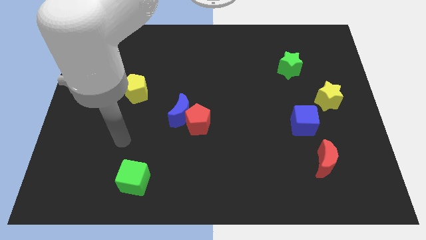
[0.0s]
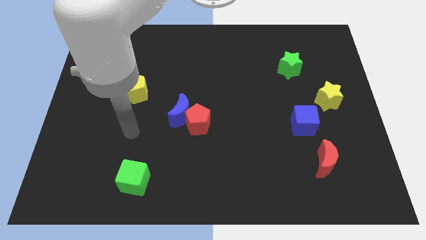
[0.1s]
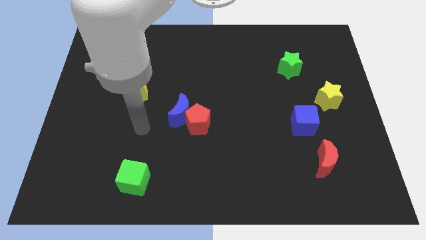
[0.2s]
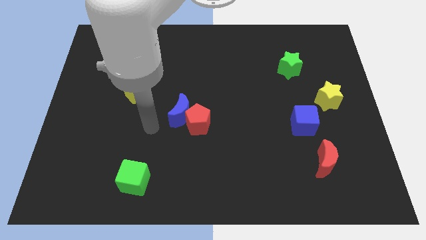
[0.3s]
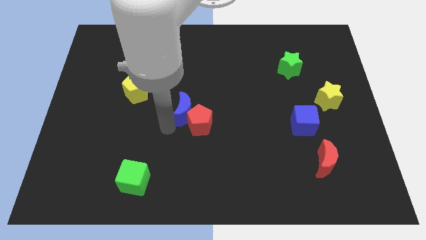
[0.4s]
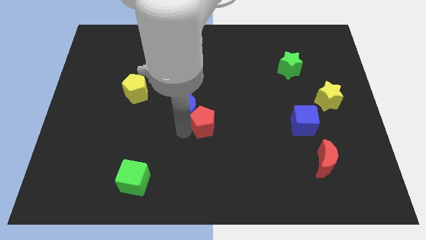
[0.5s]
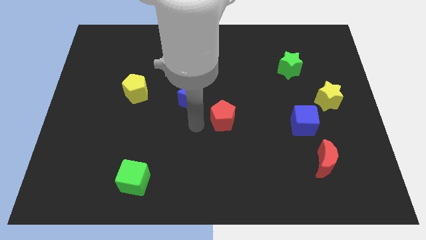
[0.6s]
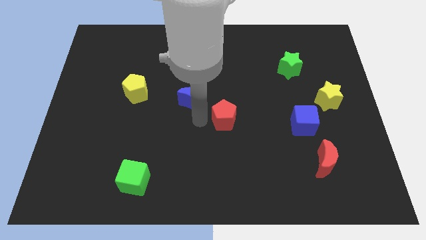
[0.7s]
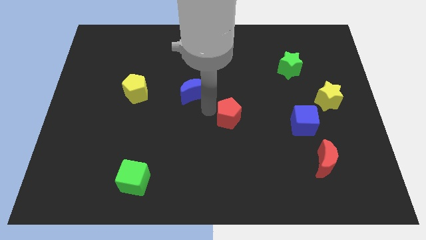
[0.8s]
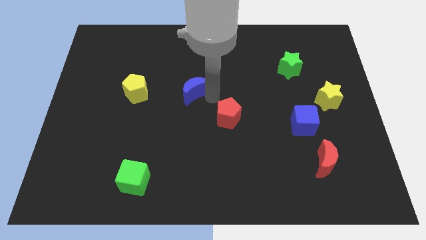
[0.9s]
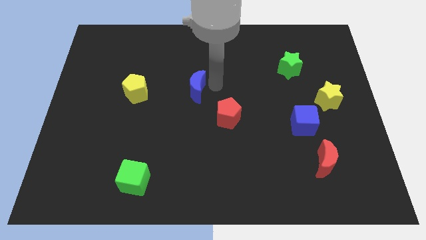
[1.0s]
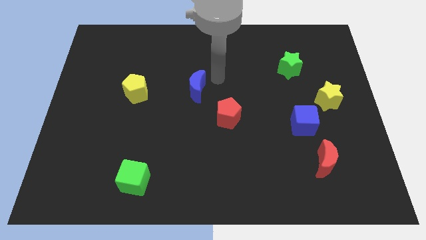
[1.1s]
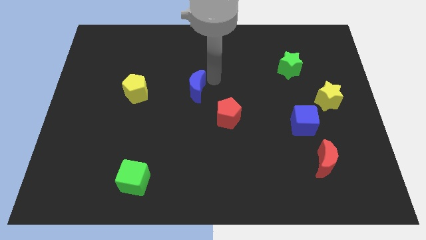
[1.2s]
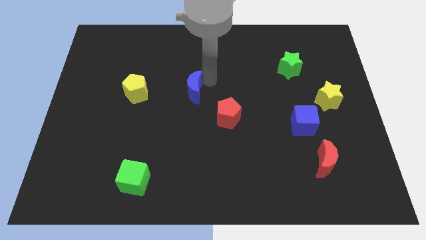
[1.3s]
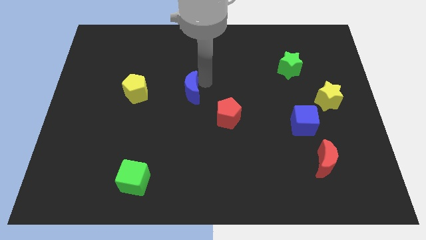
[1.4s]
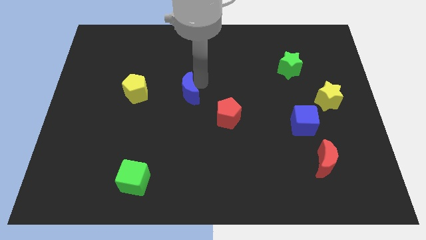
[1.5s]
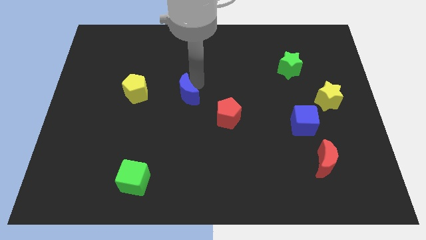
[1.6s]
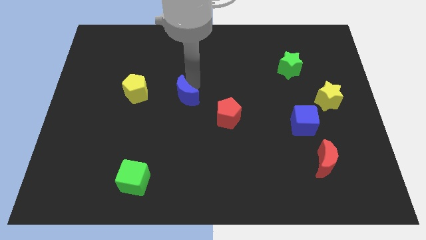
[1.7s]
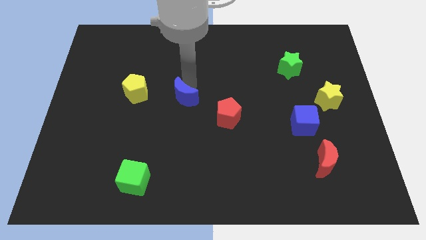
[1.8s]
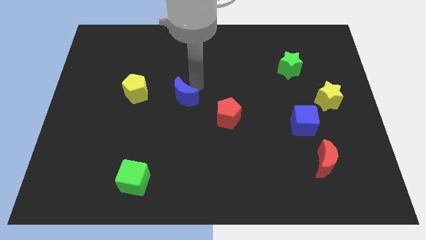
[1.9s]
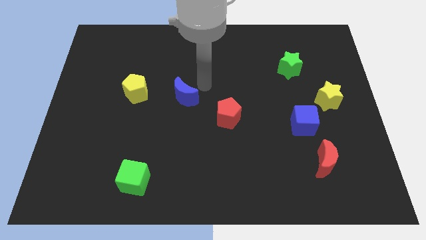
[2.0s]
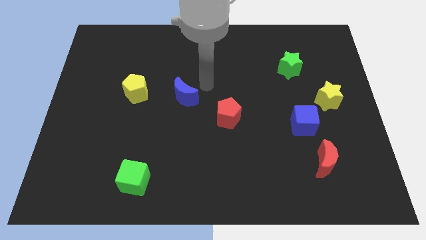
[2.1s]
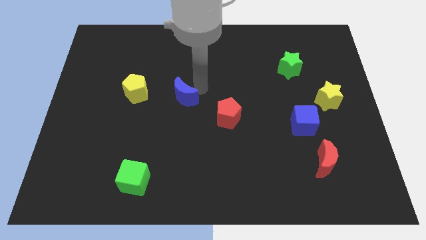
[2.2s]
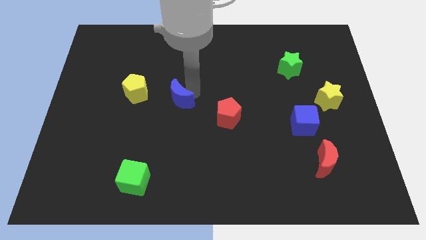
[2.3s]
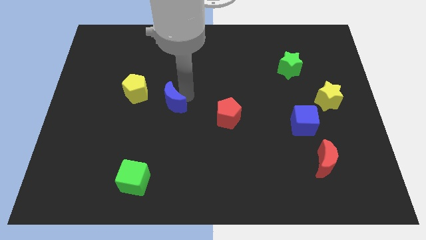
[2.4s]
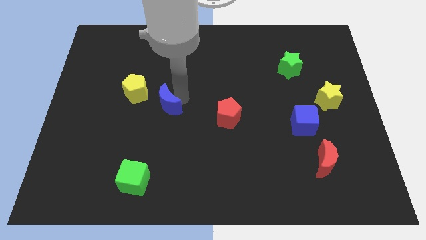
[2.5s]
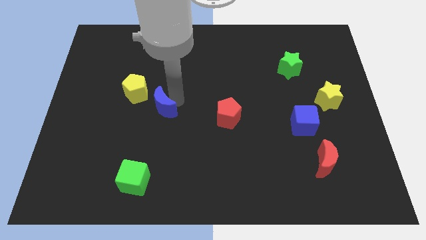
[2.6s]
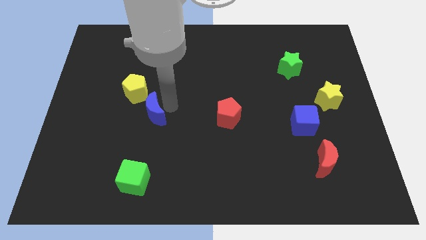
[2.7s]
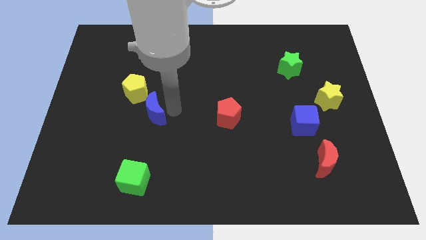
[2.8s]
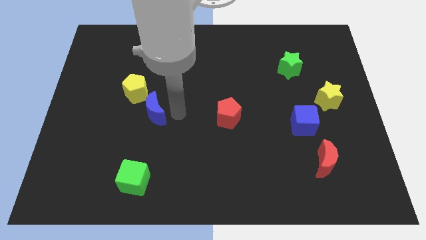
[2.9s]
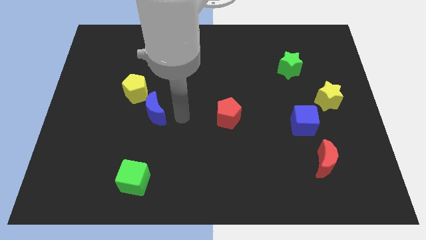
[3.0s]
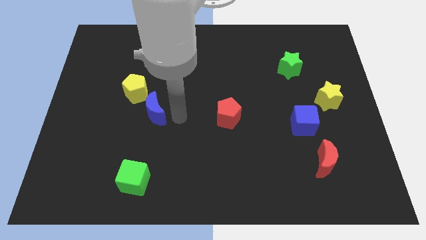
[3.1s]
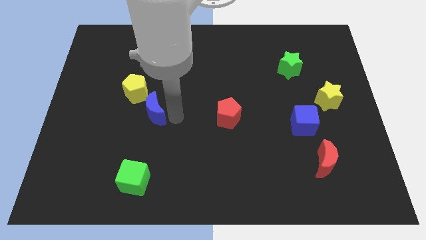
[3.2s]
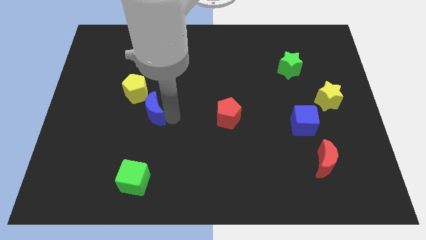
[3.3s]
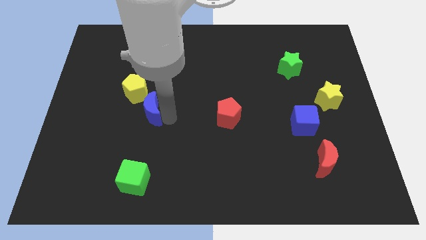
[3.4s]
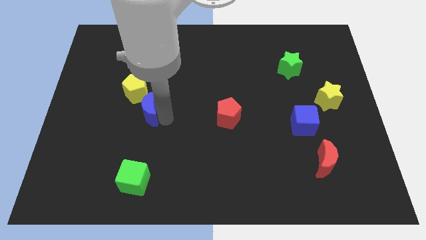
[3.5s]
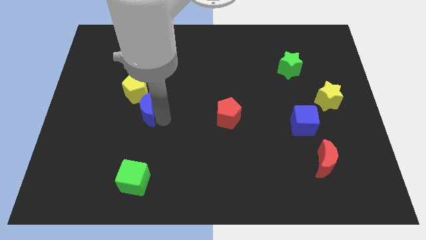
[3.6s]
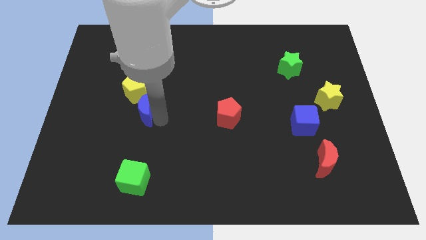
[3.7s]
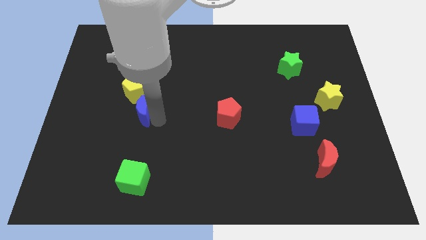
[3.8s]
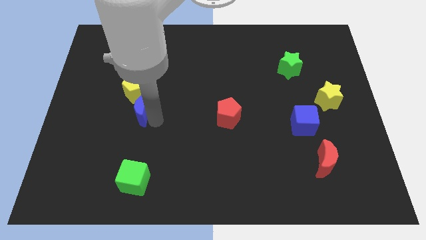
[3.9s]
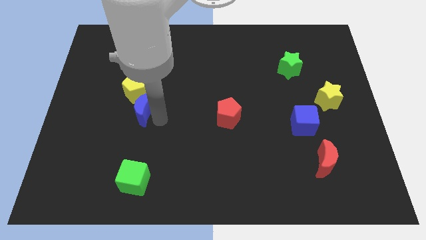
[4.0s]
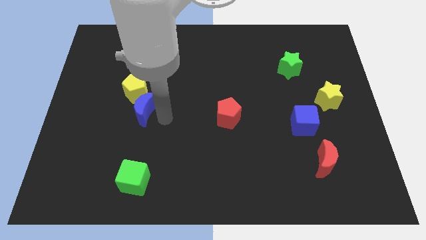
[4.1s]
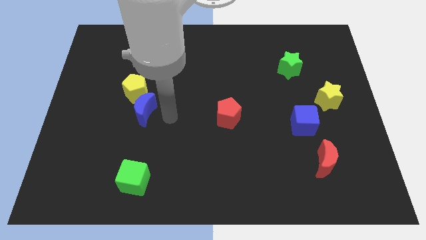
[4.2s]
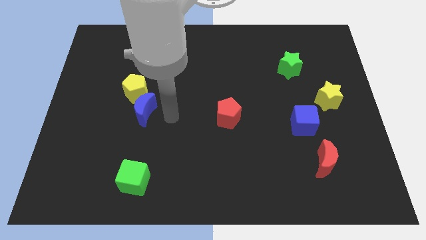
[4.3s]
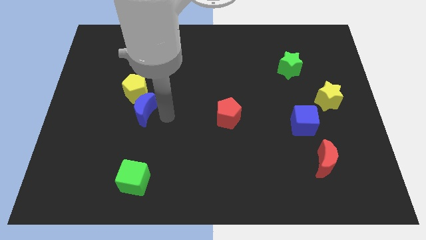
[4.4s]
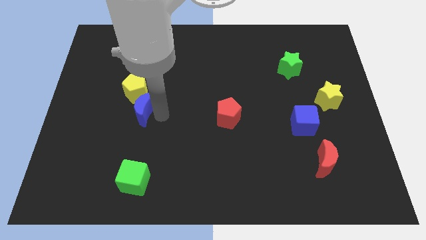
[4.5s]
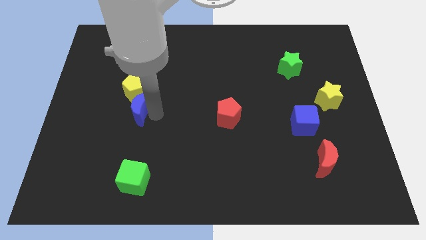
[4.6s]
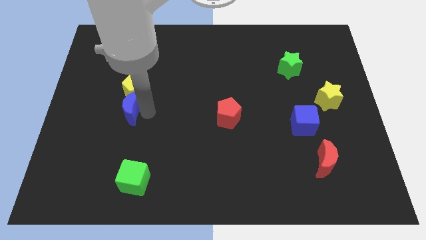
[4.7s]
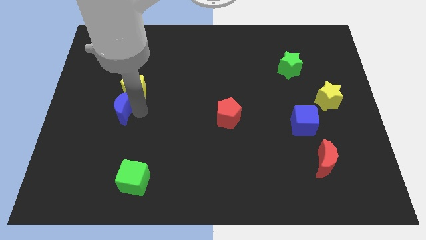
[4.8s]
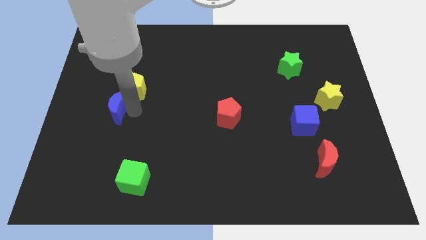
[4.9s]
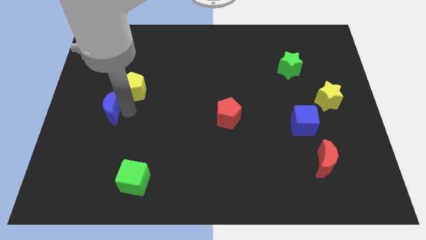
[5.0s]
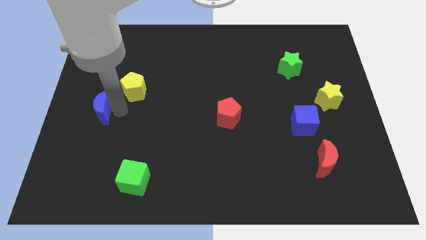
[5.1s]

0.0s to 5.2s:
put the blue moon to the left side of the board

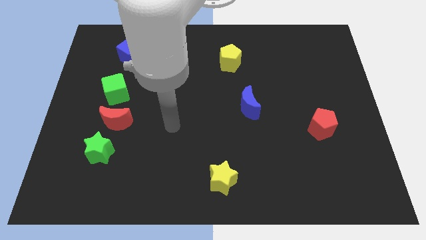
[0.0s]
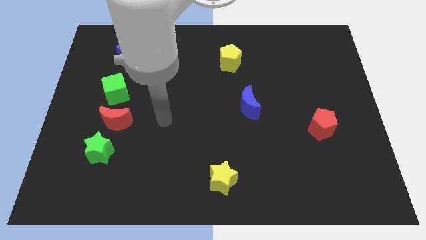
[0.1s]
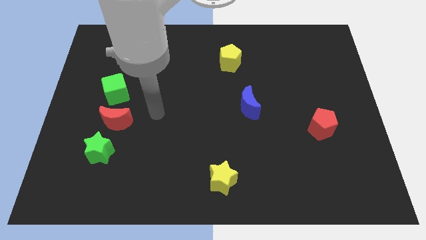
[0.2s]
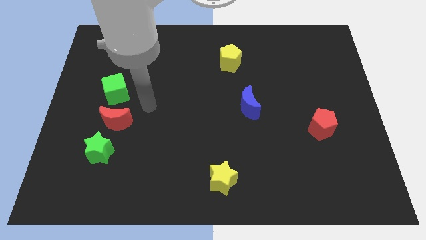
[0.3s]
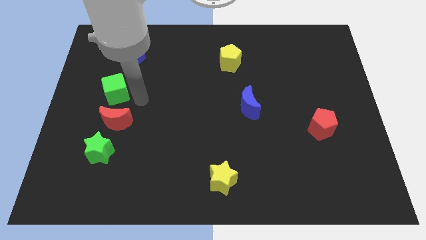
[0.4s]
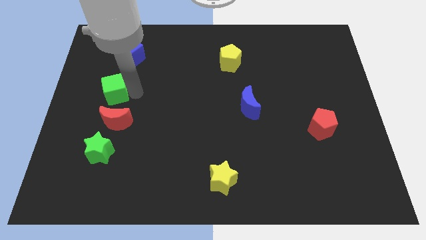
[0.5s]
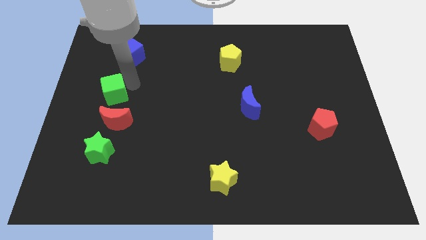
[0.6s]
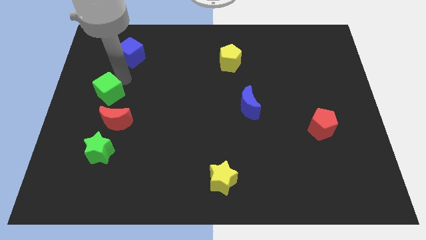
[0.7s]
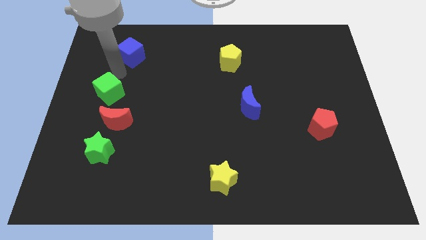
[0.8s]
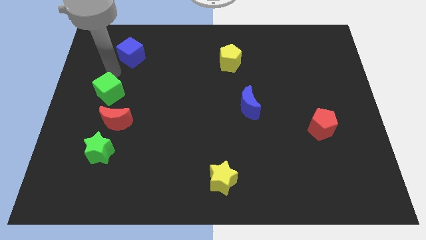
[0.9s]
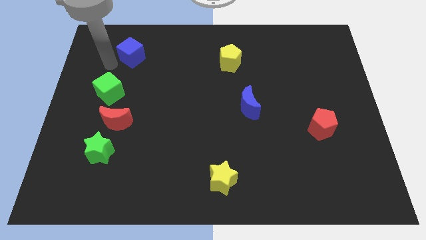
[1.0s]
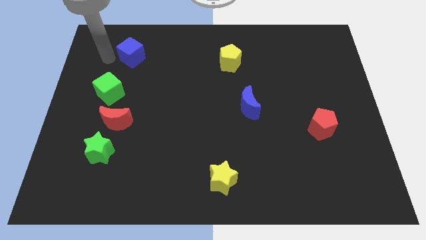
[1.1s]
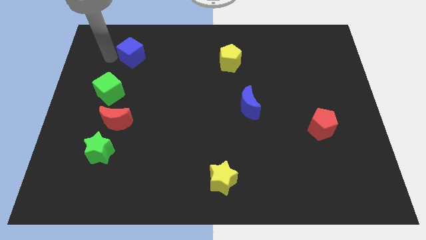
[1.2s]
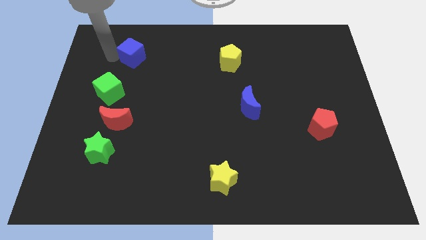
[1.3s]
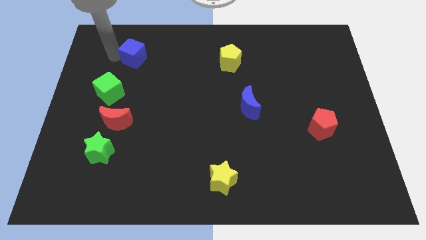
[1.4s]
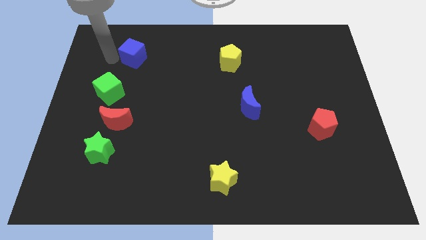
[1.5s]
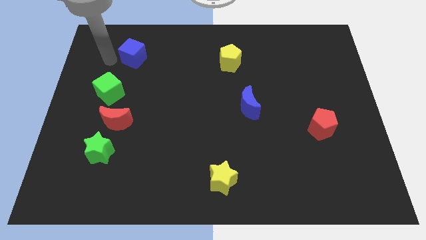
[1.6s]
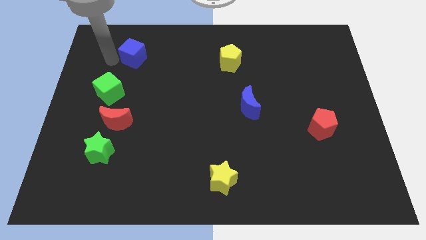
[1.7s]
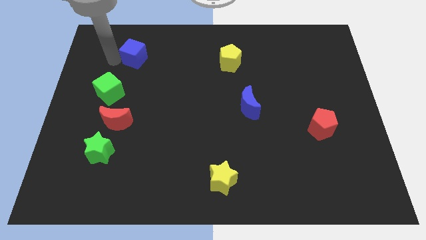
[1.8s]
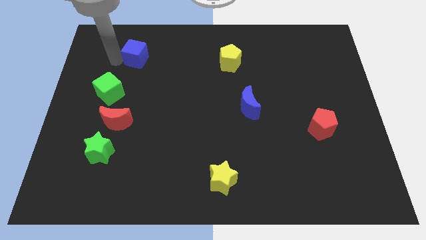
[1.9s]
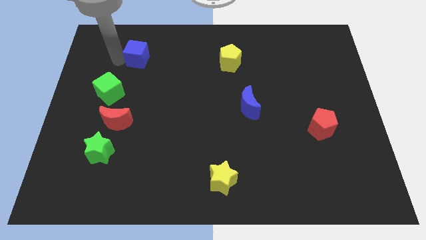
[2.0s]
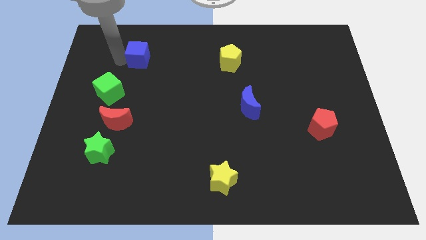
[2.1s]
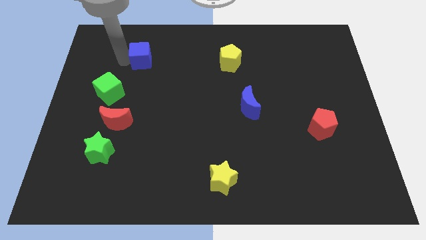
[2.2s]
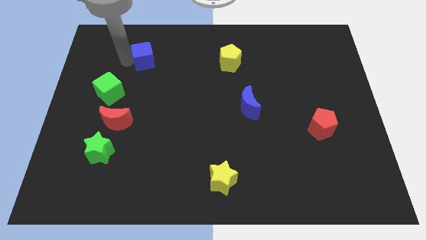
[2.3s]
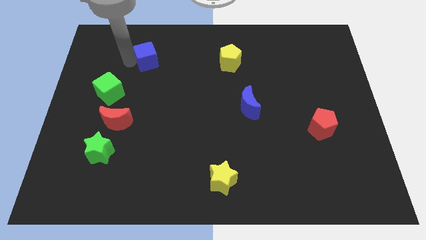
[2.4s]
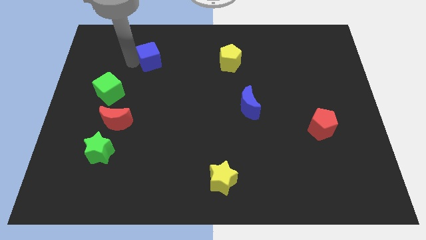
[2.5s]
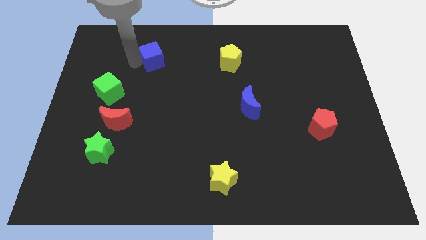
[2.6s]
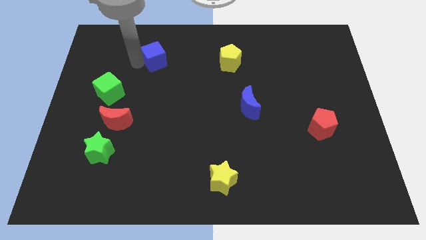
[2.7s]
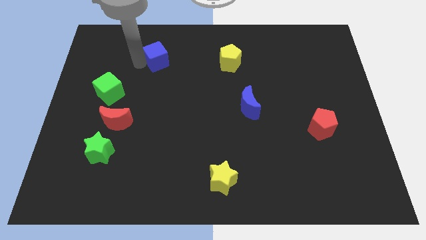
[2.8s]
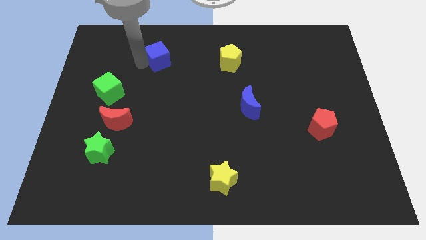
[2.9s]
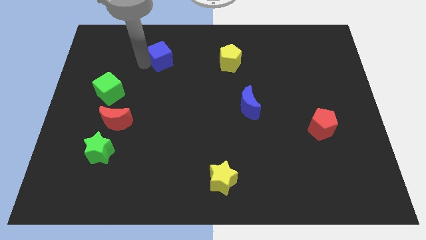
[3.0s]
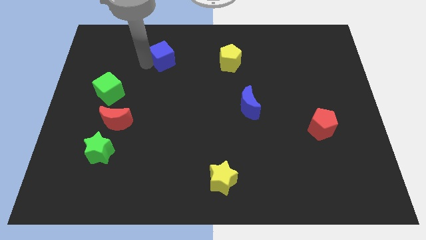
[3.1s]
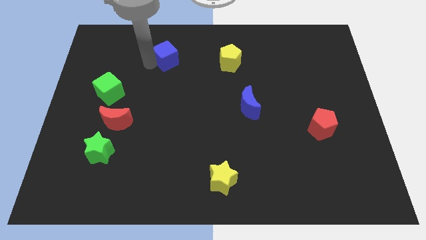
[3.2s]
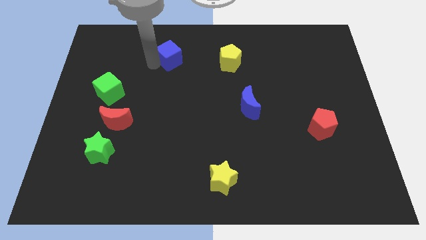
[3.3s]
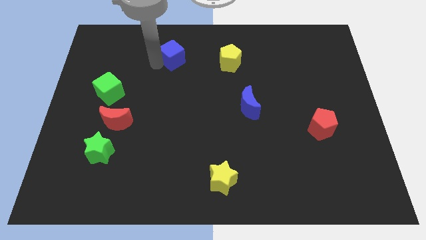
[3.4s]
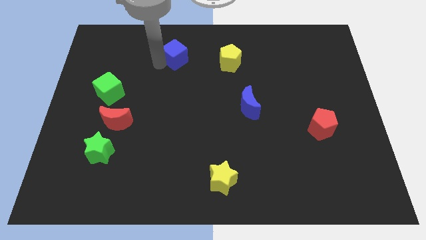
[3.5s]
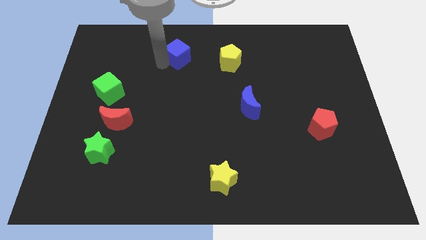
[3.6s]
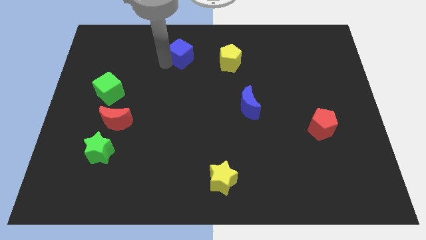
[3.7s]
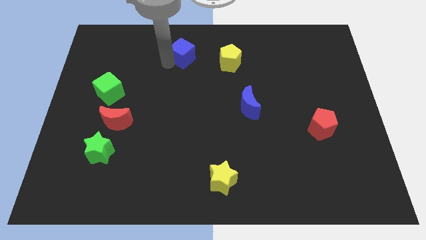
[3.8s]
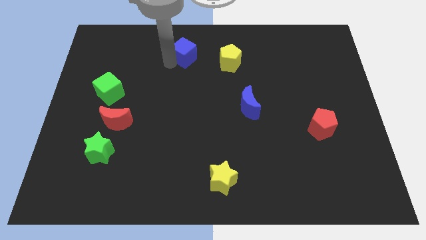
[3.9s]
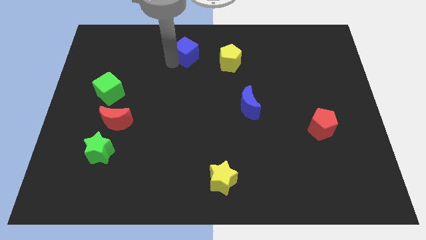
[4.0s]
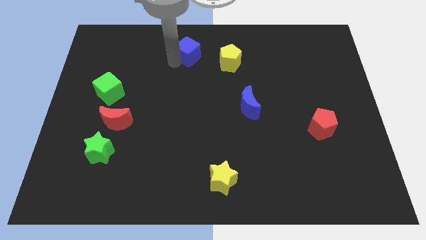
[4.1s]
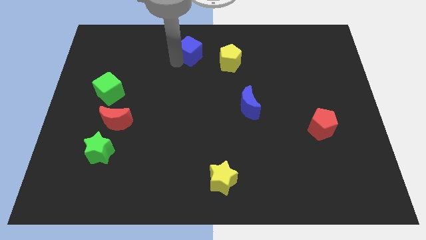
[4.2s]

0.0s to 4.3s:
move the blue cube to the top side
